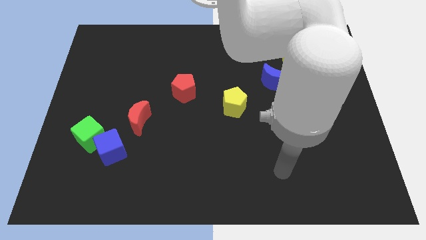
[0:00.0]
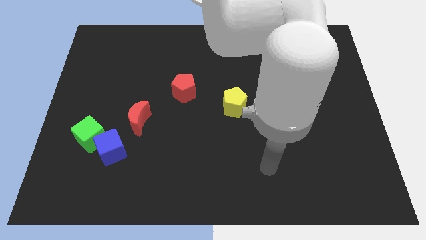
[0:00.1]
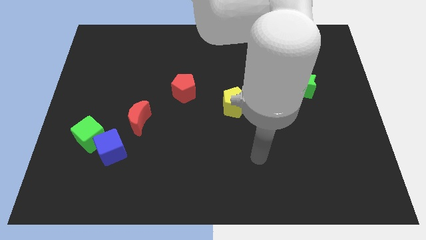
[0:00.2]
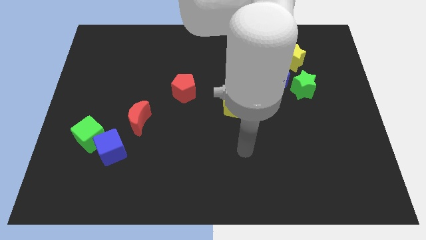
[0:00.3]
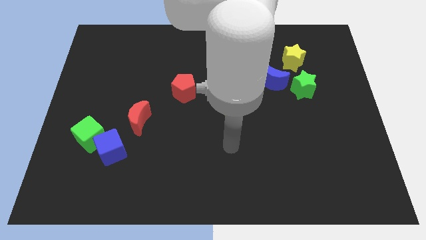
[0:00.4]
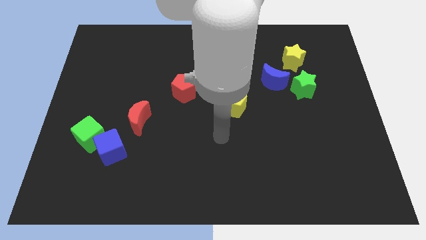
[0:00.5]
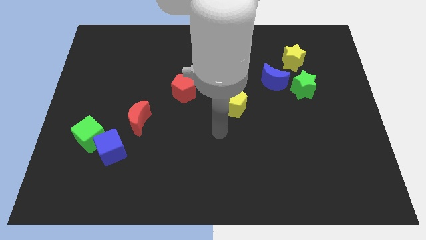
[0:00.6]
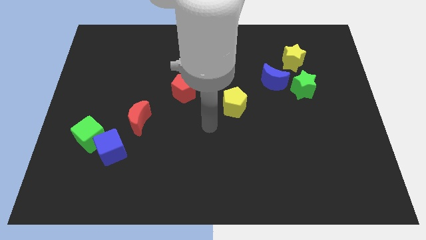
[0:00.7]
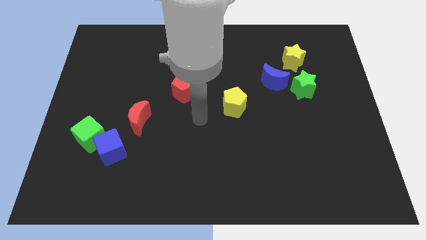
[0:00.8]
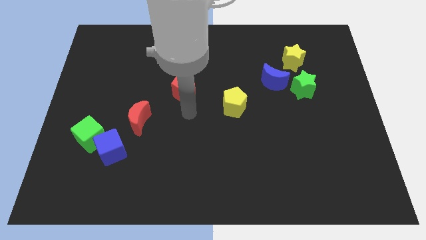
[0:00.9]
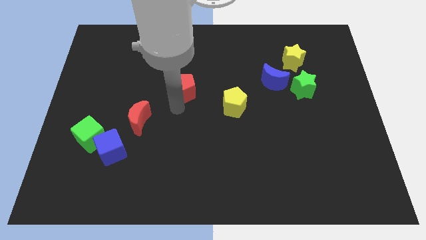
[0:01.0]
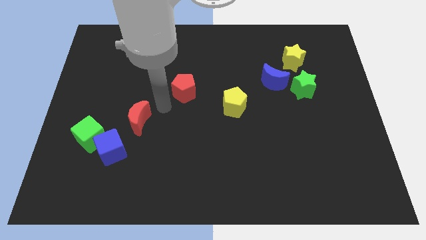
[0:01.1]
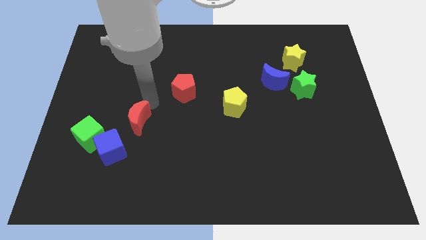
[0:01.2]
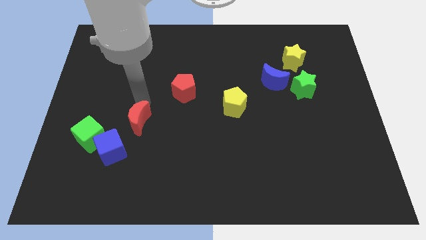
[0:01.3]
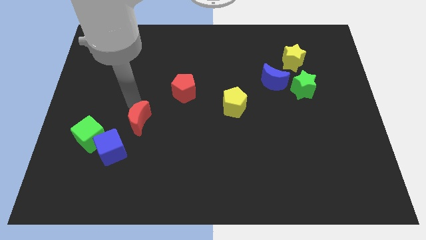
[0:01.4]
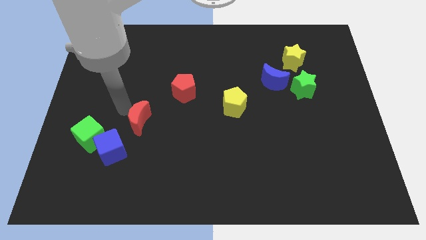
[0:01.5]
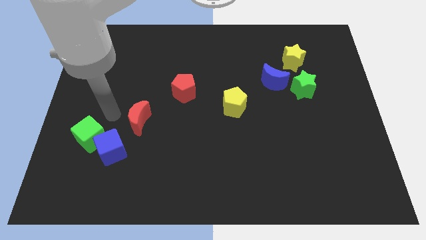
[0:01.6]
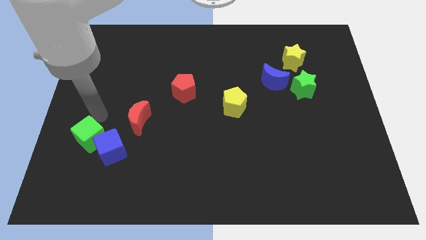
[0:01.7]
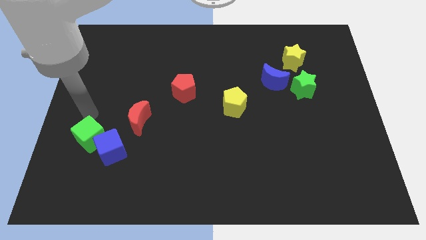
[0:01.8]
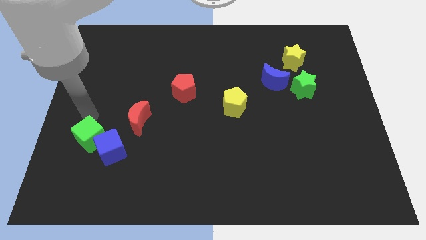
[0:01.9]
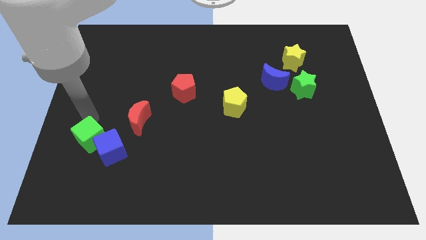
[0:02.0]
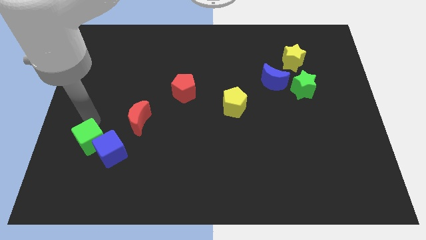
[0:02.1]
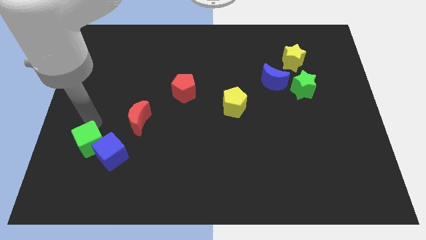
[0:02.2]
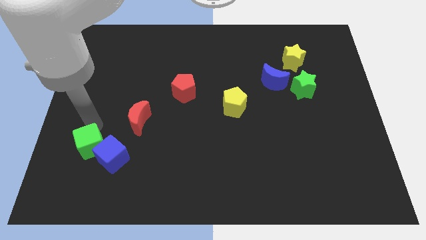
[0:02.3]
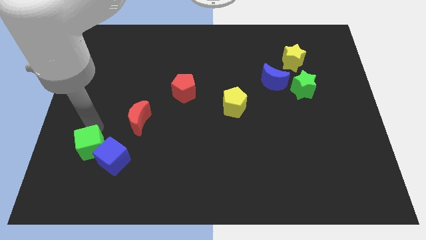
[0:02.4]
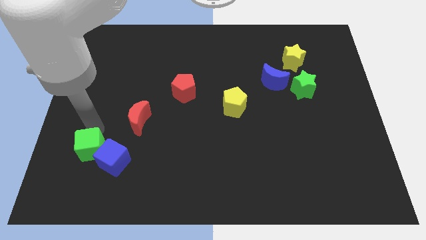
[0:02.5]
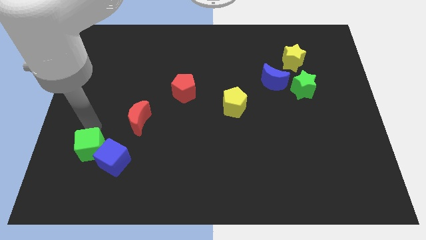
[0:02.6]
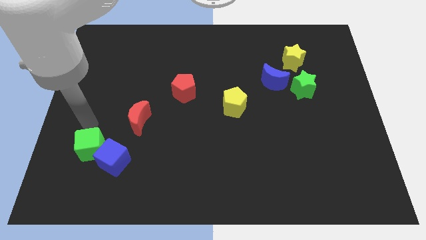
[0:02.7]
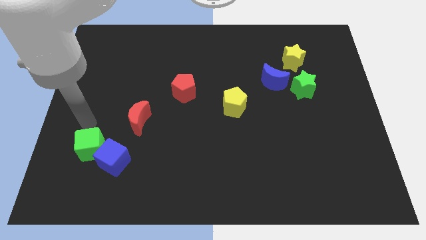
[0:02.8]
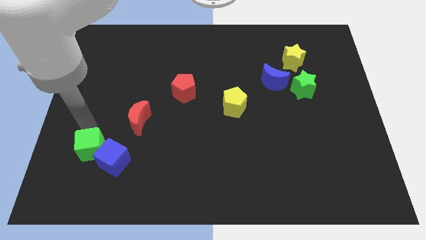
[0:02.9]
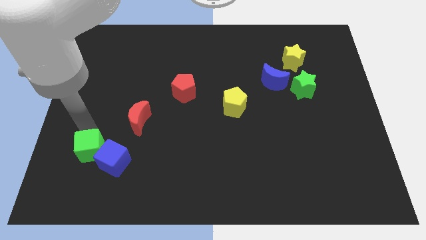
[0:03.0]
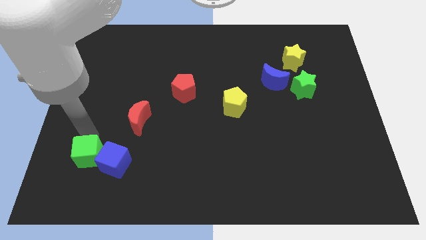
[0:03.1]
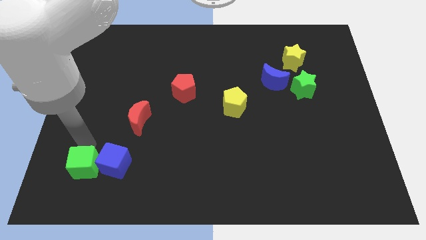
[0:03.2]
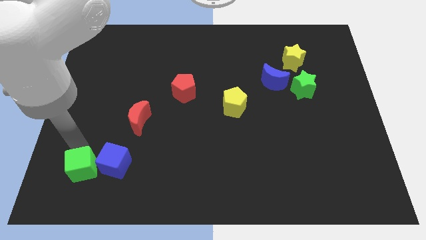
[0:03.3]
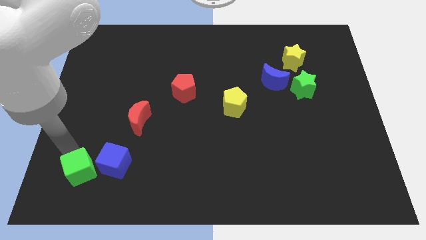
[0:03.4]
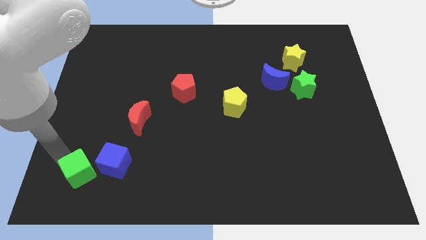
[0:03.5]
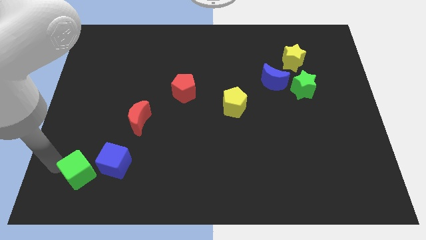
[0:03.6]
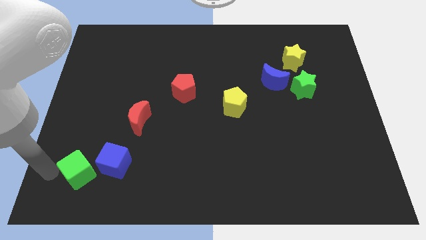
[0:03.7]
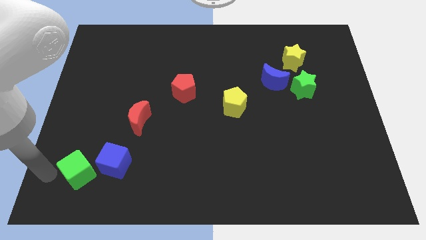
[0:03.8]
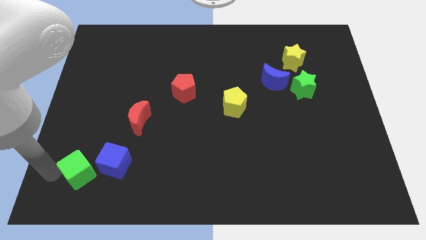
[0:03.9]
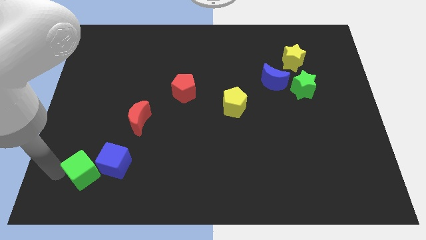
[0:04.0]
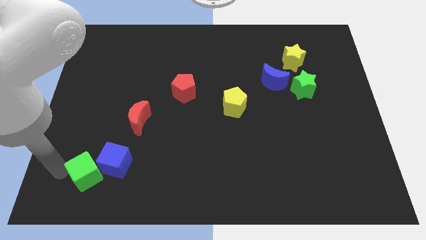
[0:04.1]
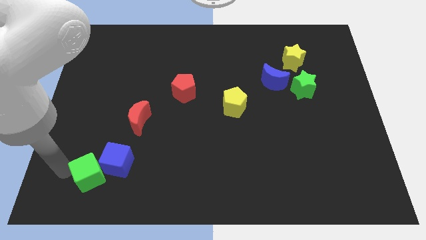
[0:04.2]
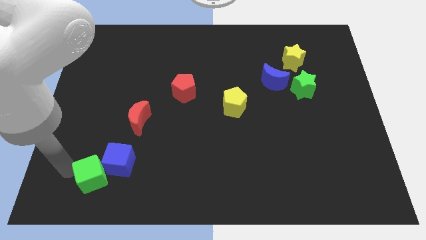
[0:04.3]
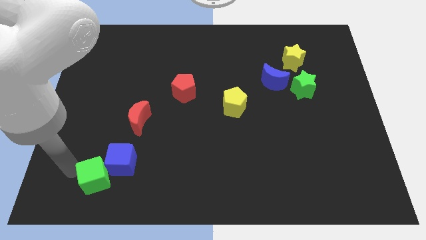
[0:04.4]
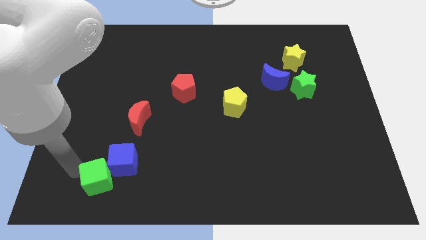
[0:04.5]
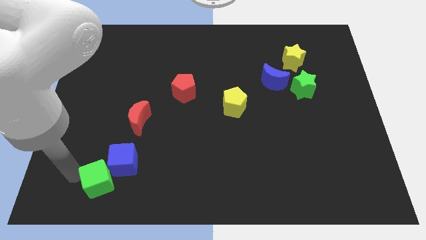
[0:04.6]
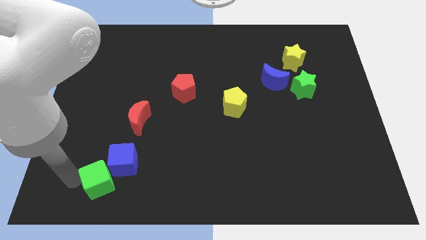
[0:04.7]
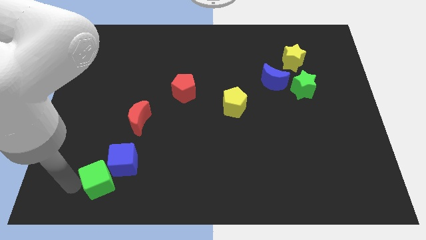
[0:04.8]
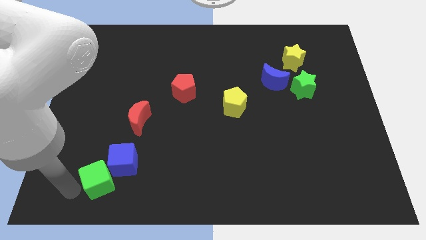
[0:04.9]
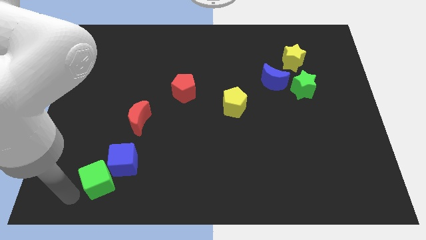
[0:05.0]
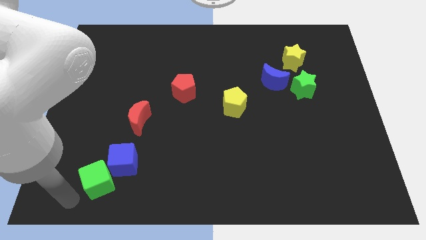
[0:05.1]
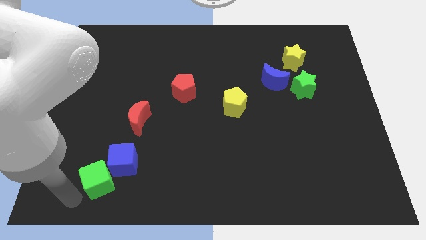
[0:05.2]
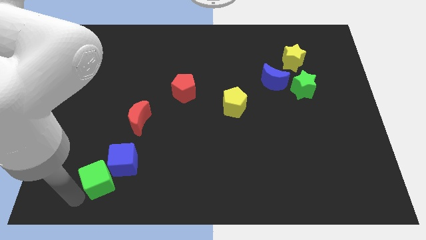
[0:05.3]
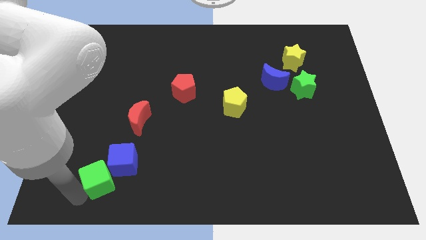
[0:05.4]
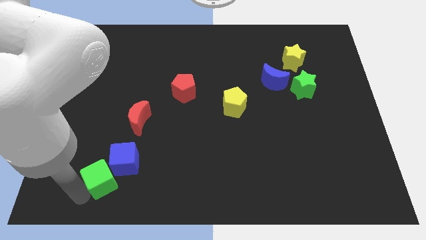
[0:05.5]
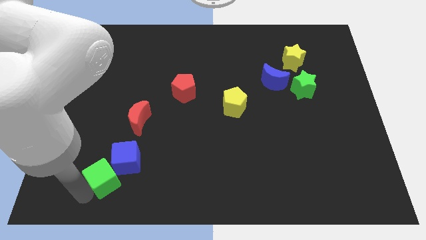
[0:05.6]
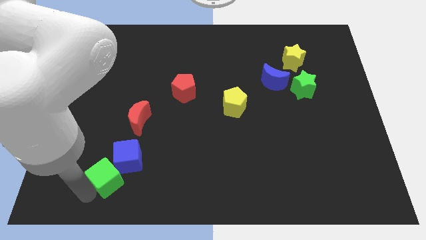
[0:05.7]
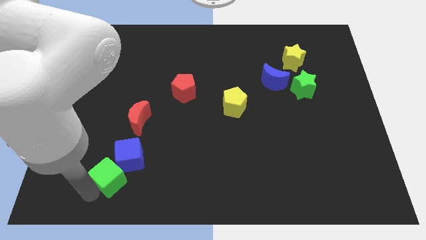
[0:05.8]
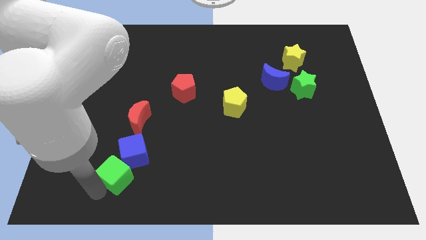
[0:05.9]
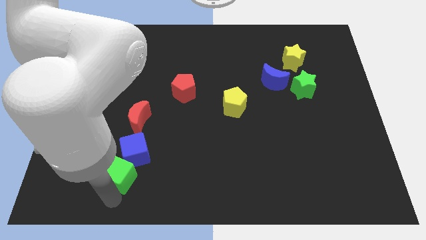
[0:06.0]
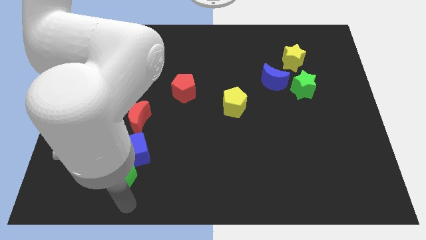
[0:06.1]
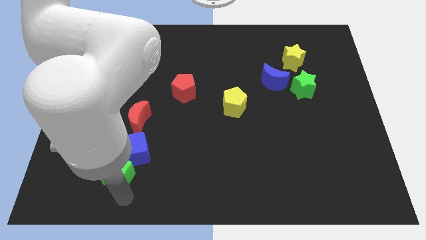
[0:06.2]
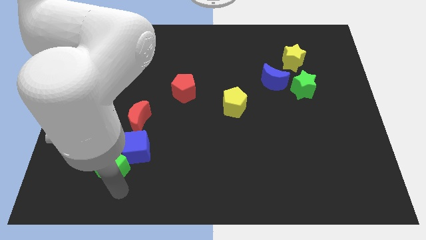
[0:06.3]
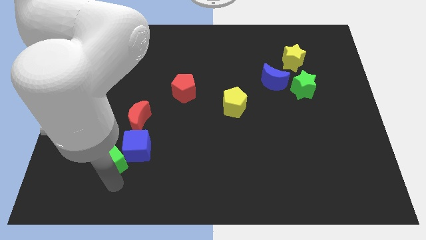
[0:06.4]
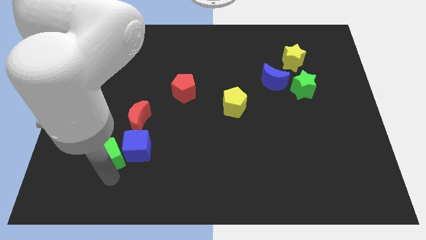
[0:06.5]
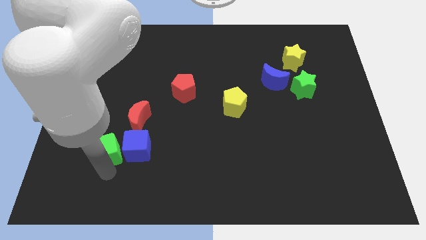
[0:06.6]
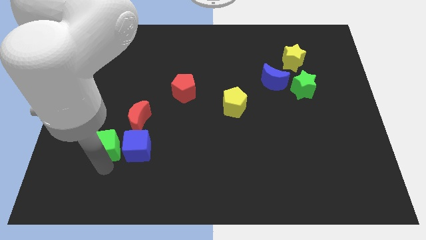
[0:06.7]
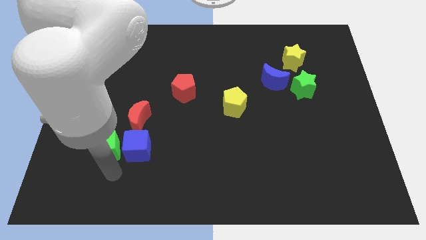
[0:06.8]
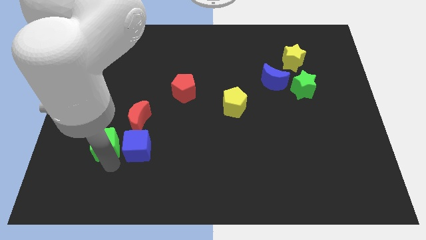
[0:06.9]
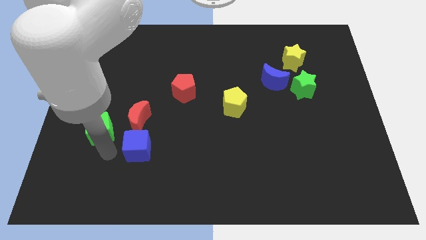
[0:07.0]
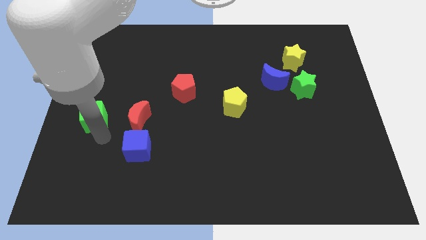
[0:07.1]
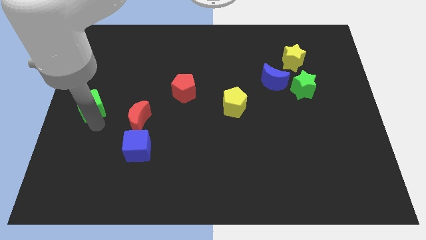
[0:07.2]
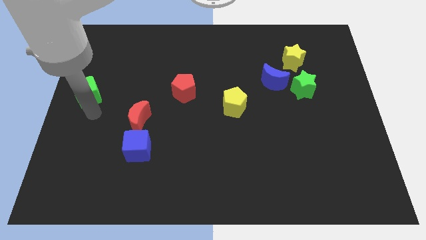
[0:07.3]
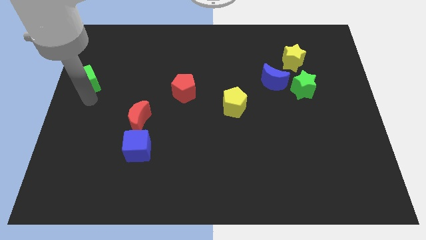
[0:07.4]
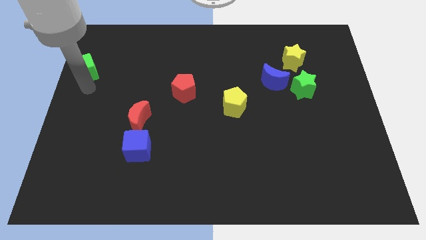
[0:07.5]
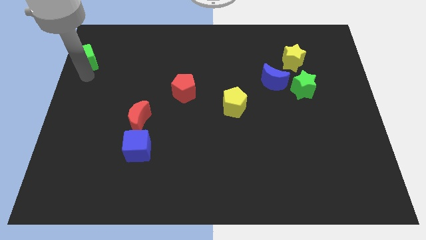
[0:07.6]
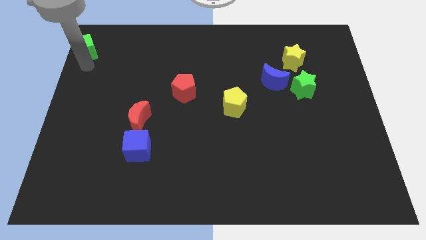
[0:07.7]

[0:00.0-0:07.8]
push the green cube to the upper left corner
